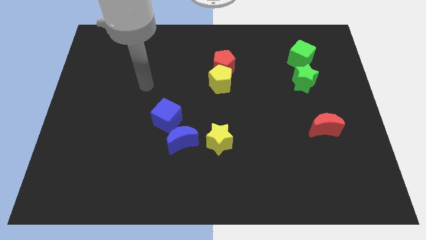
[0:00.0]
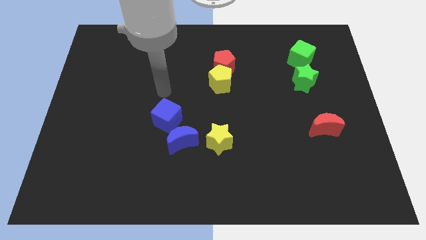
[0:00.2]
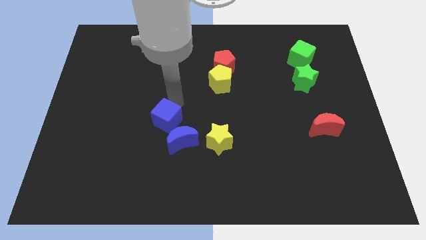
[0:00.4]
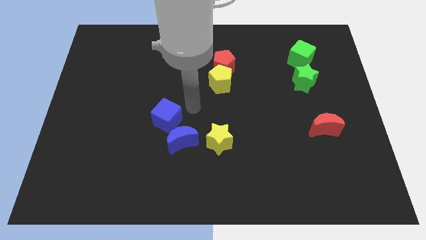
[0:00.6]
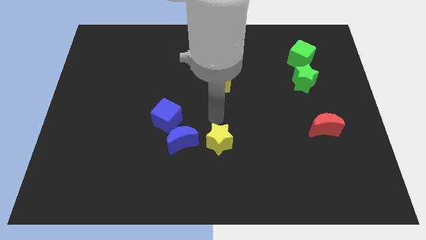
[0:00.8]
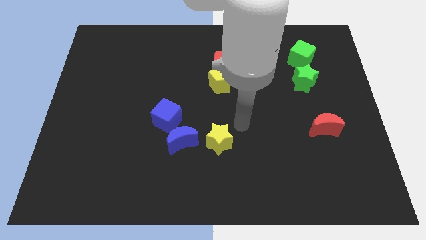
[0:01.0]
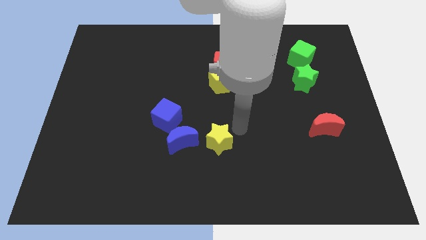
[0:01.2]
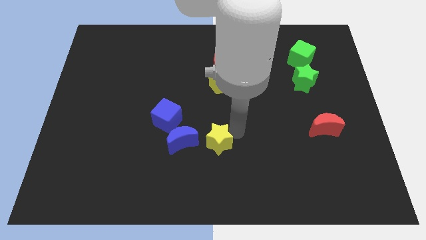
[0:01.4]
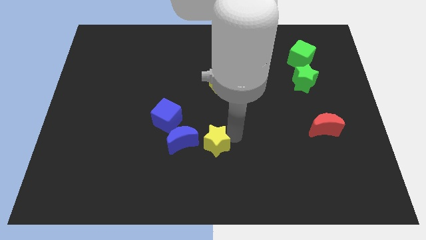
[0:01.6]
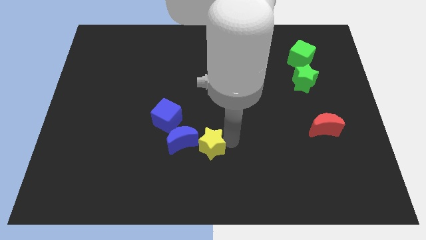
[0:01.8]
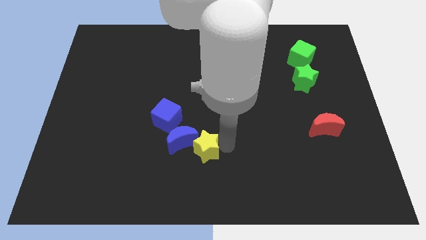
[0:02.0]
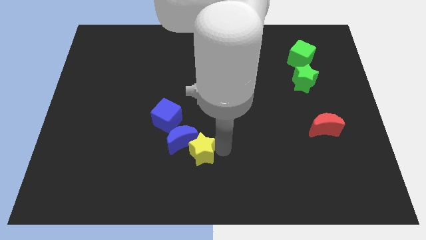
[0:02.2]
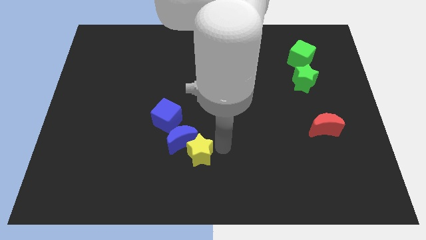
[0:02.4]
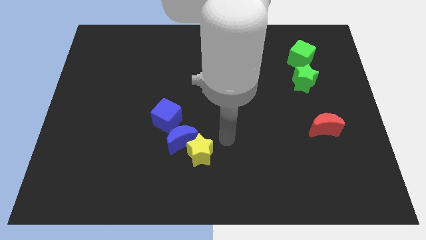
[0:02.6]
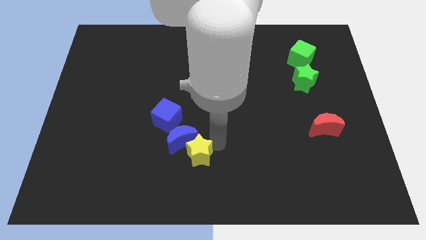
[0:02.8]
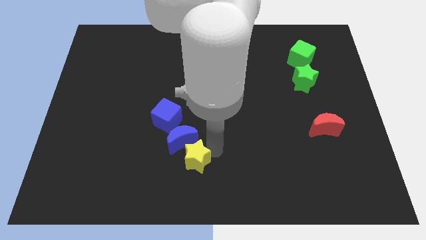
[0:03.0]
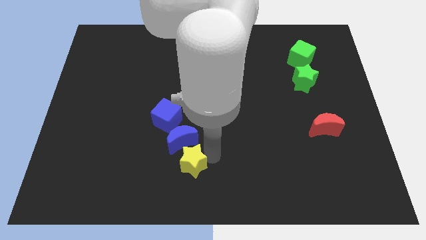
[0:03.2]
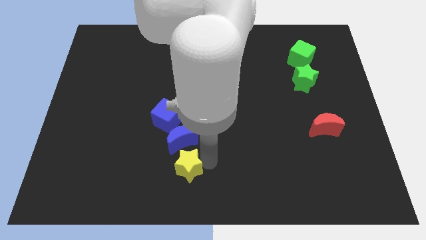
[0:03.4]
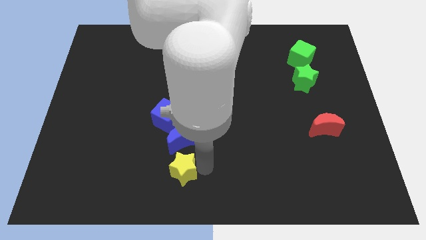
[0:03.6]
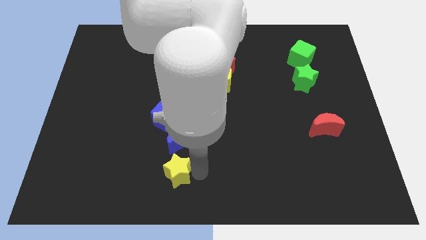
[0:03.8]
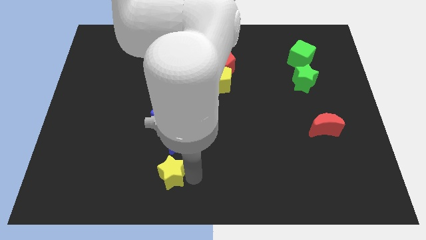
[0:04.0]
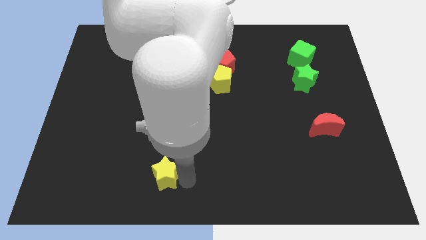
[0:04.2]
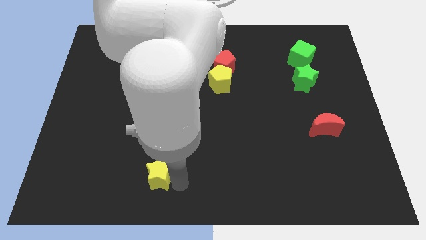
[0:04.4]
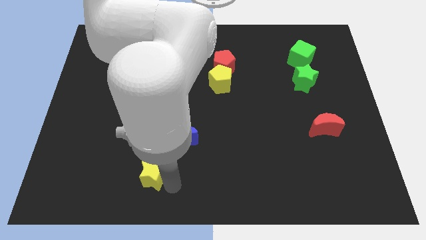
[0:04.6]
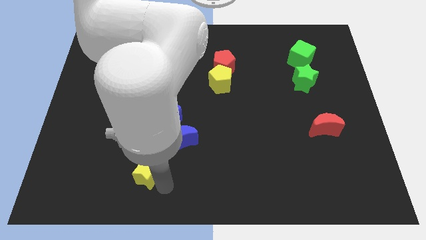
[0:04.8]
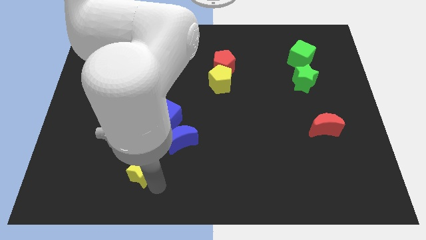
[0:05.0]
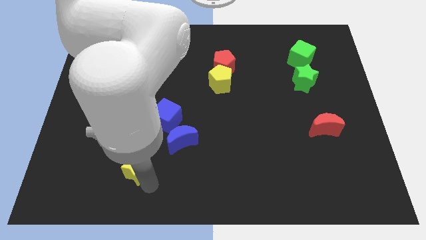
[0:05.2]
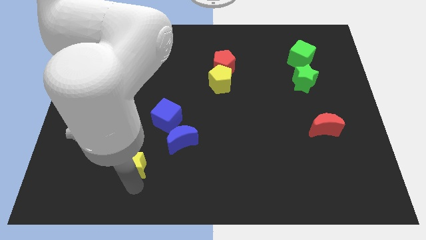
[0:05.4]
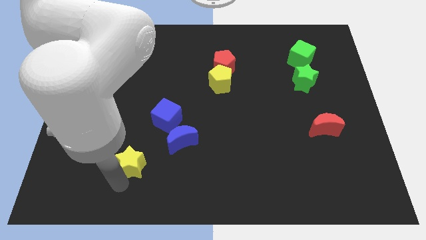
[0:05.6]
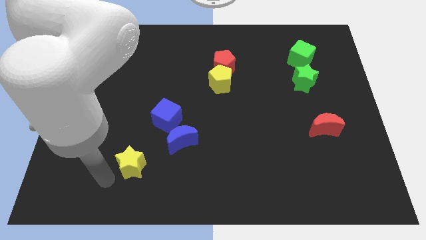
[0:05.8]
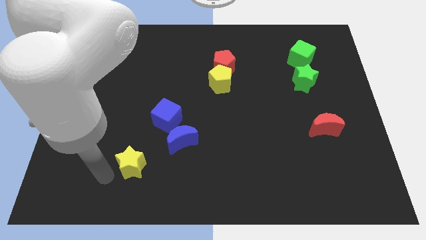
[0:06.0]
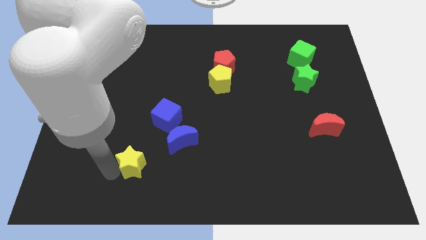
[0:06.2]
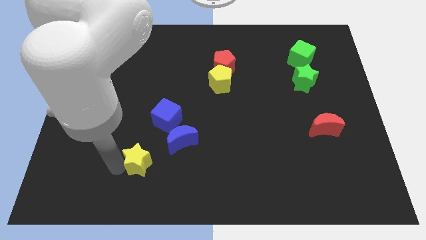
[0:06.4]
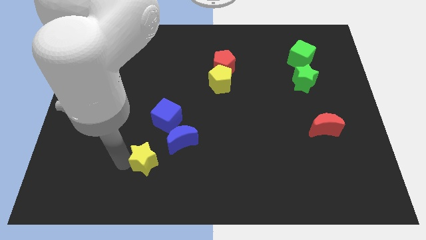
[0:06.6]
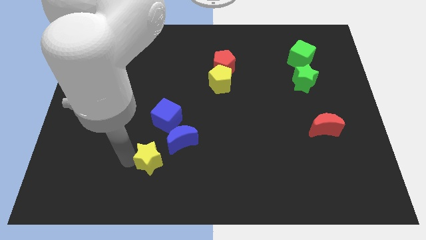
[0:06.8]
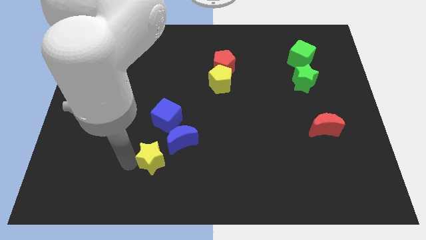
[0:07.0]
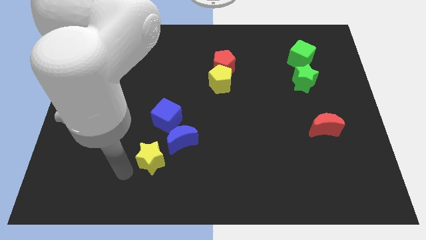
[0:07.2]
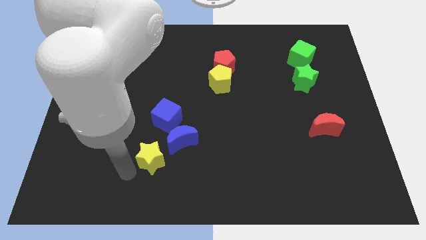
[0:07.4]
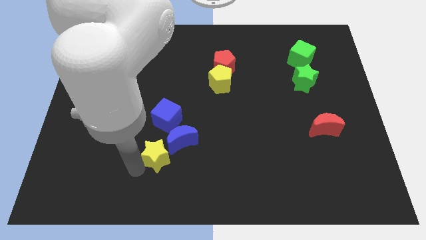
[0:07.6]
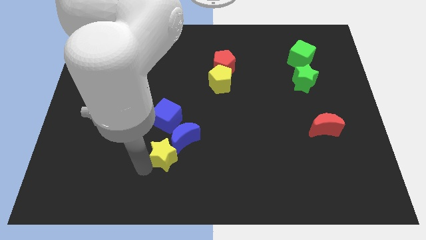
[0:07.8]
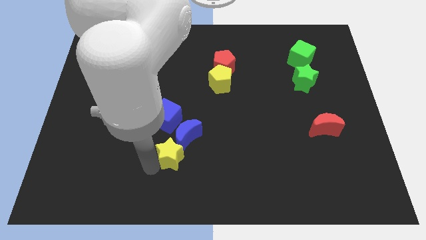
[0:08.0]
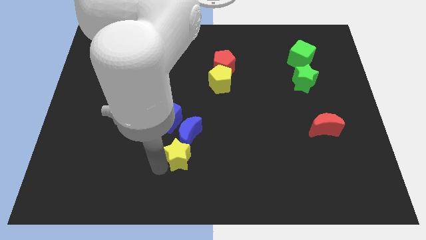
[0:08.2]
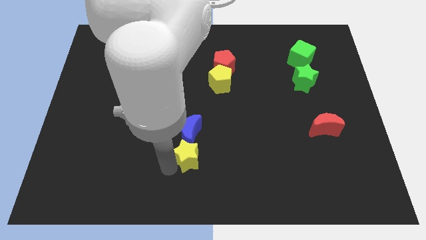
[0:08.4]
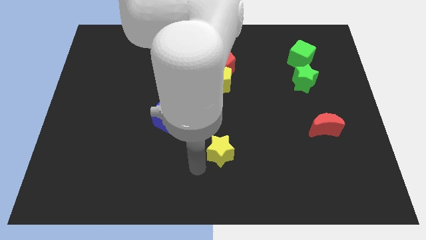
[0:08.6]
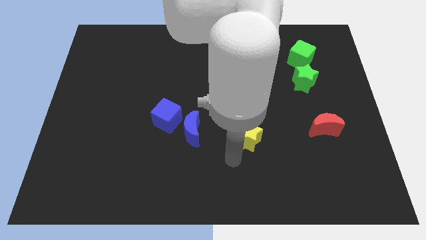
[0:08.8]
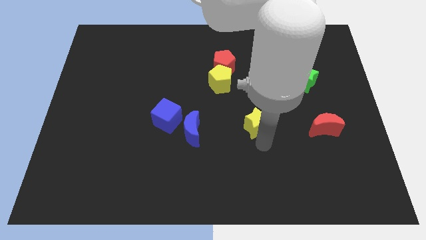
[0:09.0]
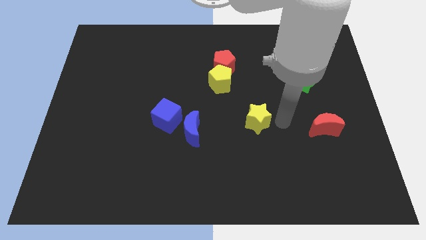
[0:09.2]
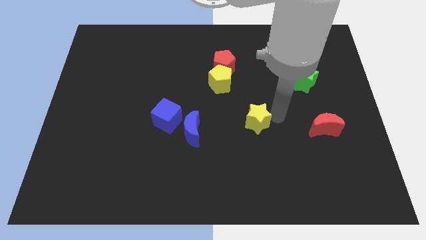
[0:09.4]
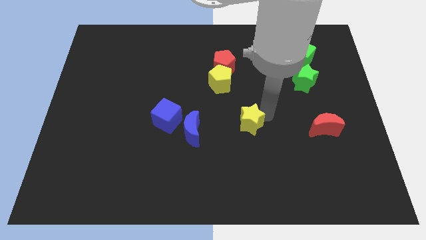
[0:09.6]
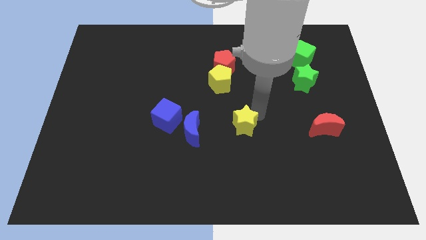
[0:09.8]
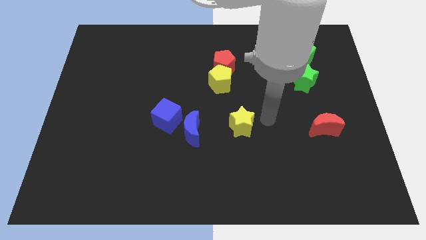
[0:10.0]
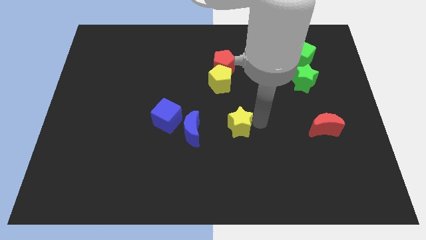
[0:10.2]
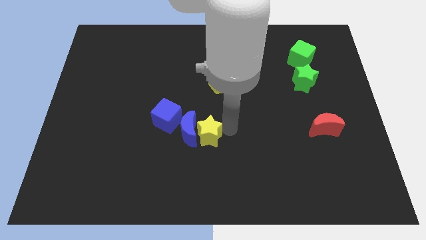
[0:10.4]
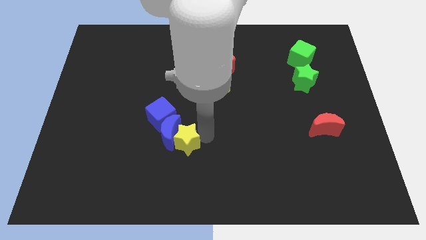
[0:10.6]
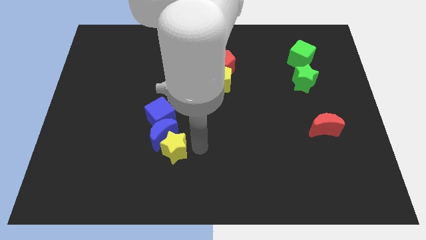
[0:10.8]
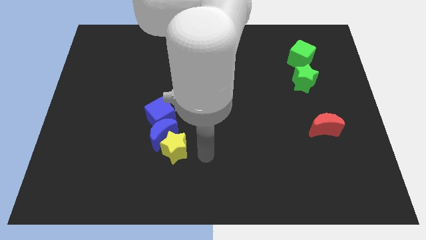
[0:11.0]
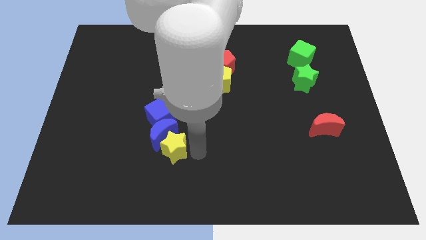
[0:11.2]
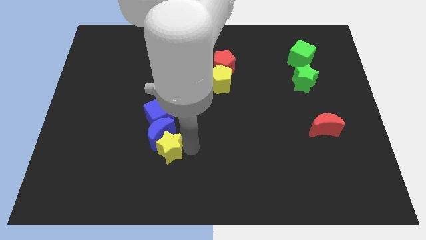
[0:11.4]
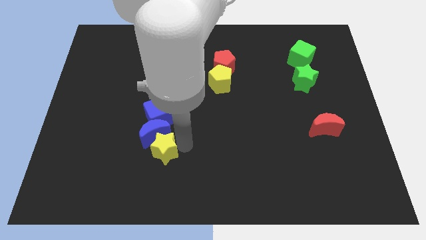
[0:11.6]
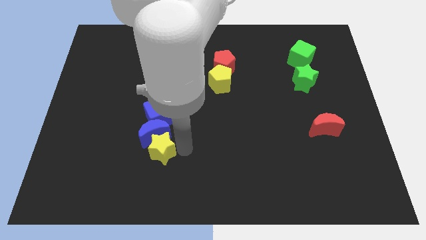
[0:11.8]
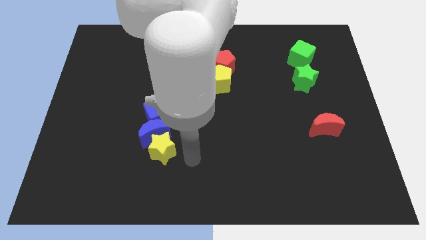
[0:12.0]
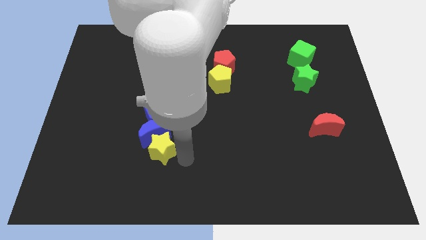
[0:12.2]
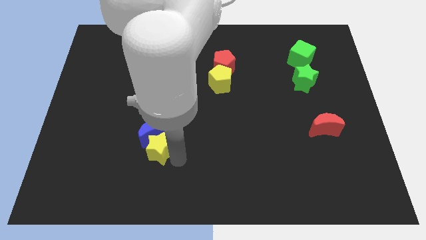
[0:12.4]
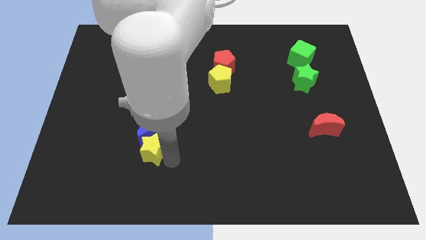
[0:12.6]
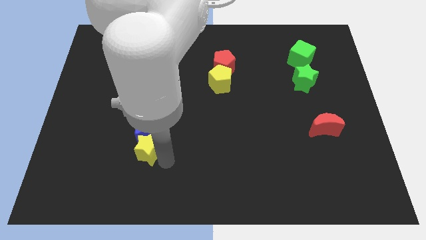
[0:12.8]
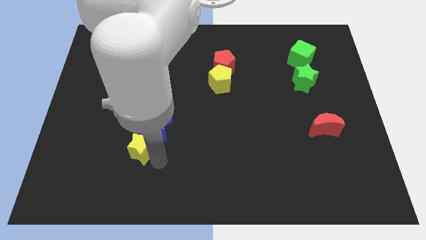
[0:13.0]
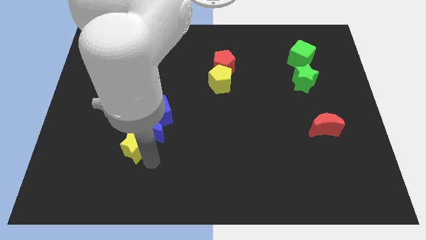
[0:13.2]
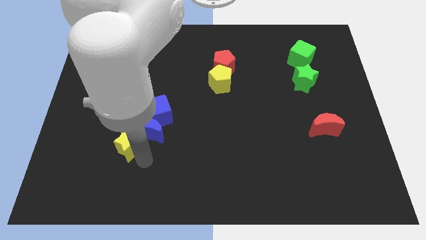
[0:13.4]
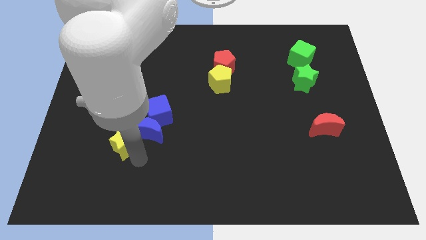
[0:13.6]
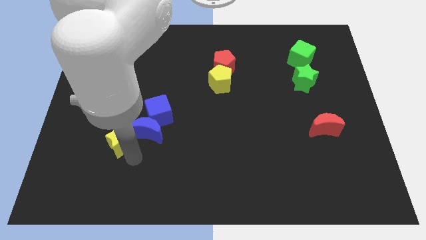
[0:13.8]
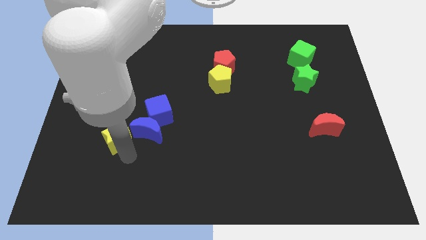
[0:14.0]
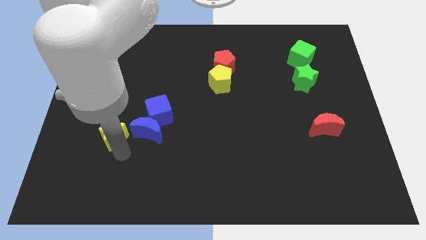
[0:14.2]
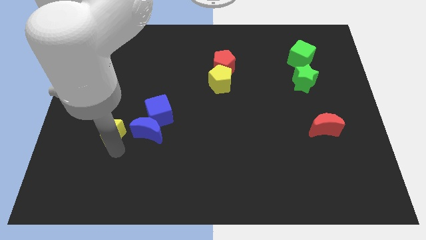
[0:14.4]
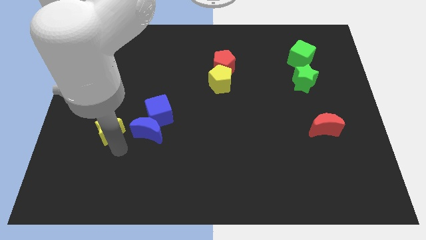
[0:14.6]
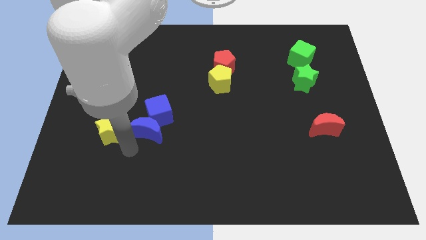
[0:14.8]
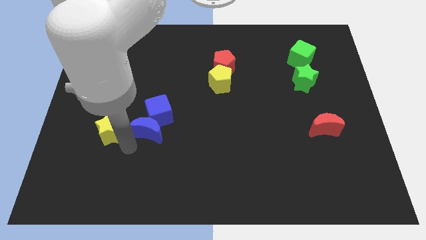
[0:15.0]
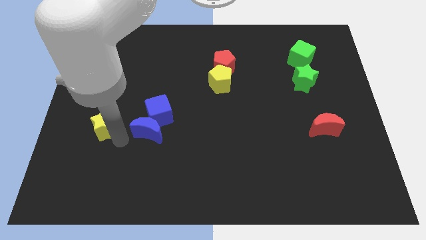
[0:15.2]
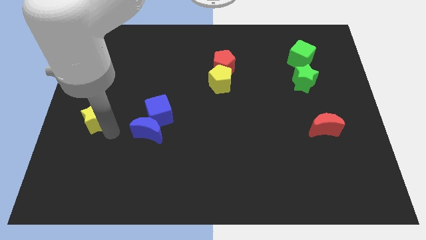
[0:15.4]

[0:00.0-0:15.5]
push the yellow star to the center left
